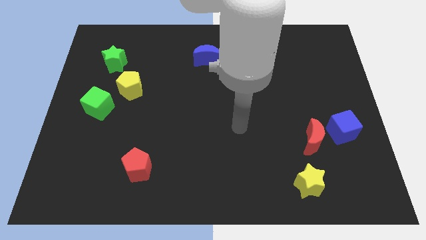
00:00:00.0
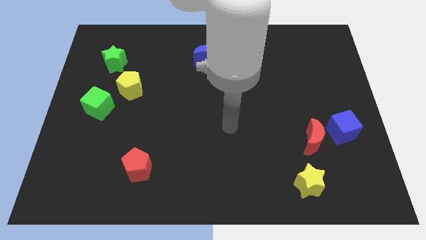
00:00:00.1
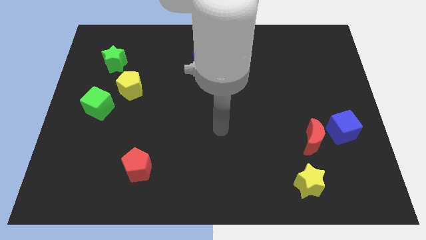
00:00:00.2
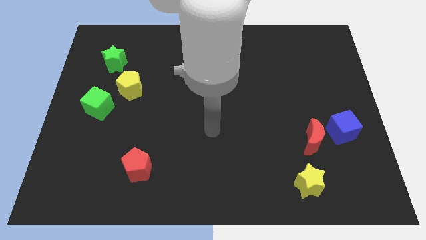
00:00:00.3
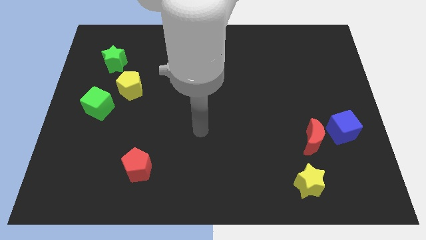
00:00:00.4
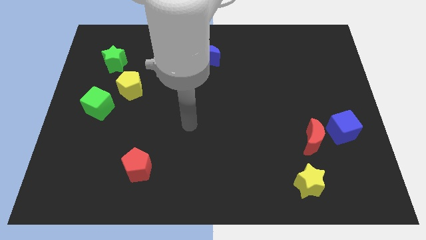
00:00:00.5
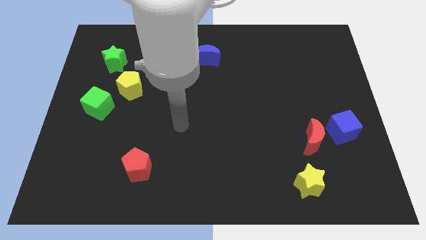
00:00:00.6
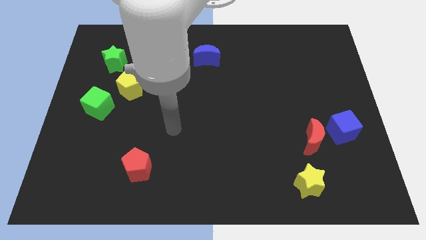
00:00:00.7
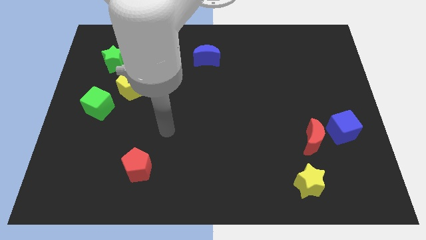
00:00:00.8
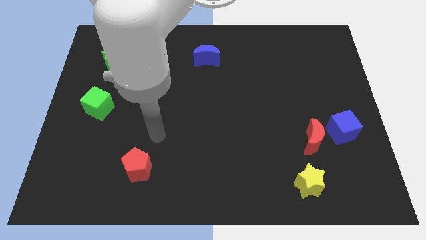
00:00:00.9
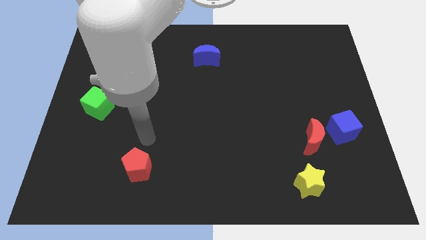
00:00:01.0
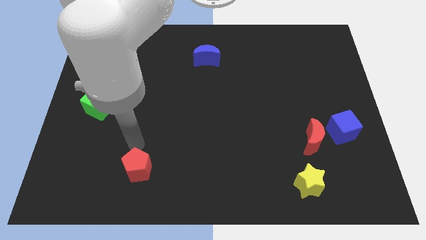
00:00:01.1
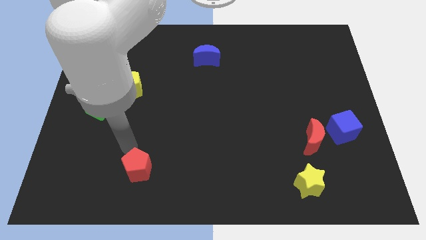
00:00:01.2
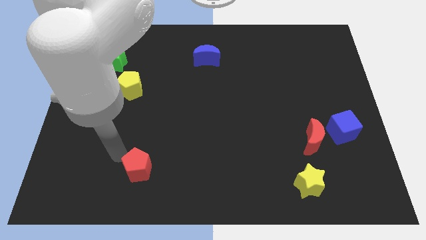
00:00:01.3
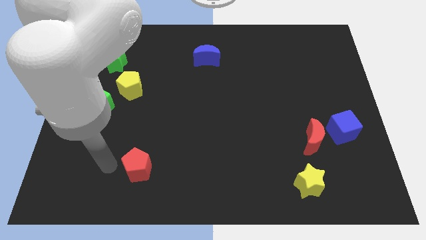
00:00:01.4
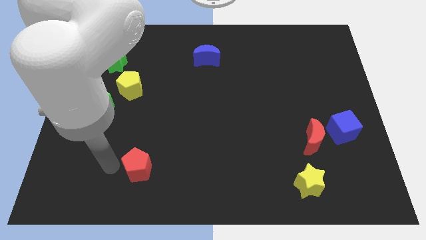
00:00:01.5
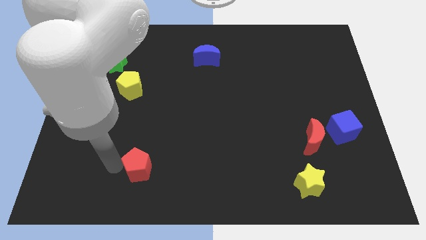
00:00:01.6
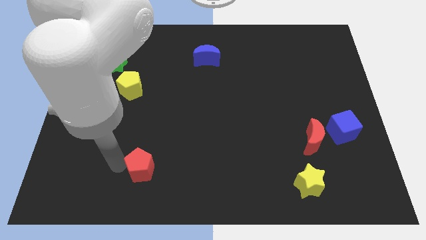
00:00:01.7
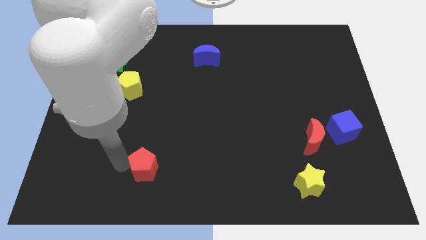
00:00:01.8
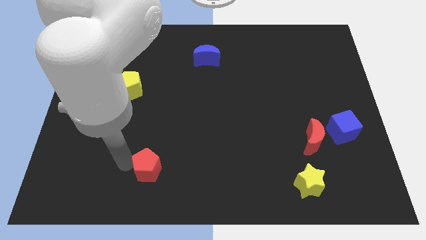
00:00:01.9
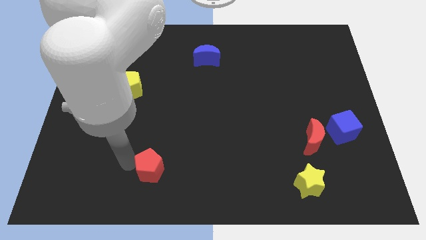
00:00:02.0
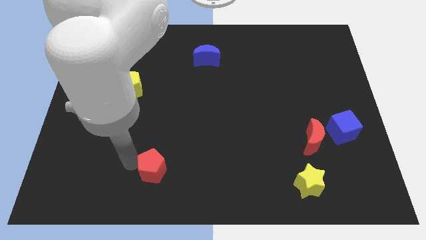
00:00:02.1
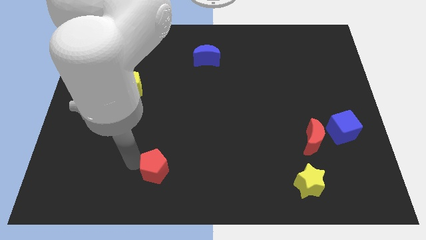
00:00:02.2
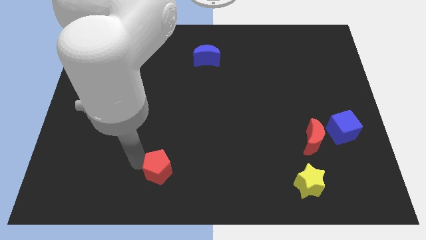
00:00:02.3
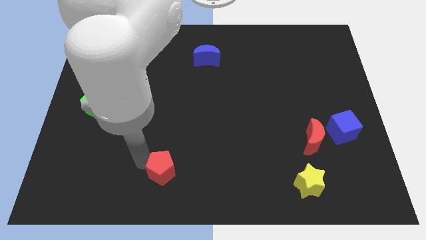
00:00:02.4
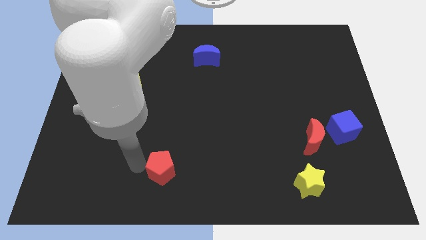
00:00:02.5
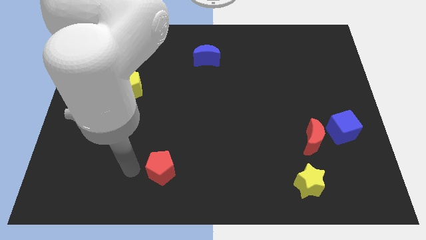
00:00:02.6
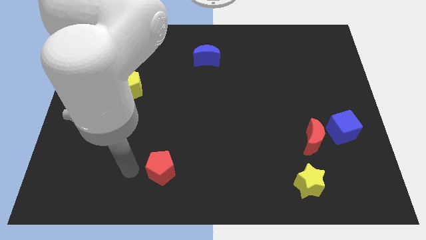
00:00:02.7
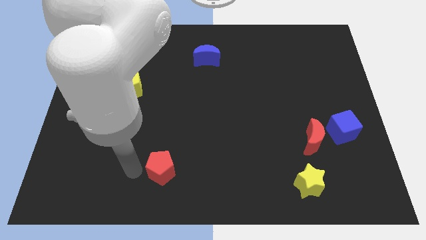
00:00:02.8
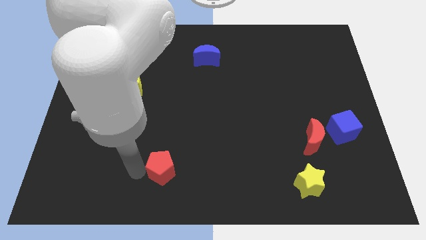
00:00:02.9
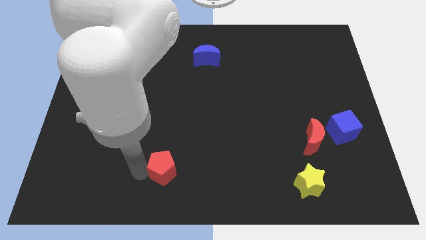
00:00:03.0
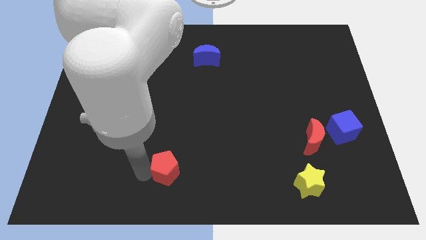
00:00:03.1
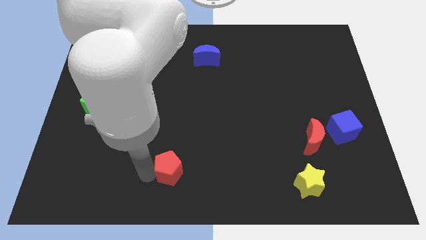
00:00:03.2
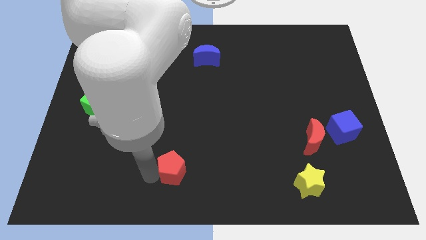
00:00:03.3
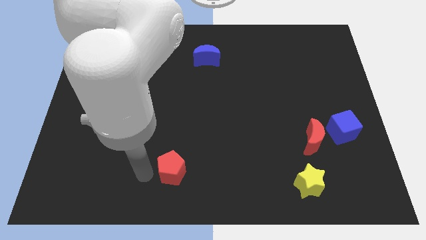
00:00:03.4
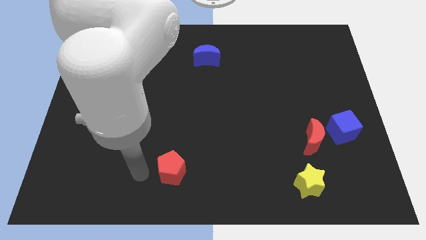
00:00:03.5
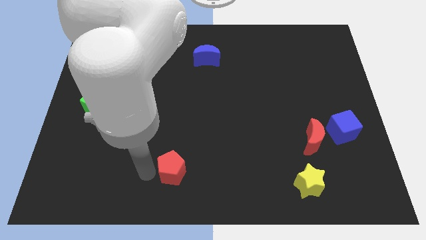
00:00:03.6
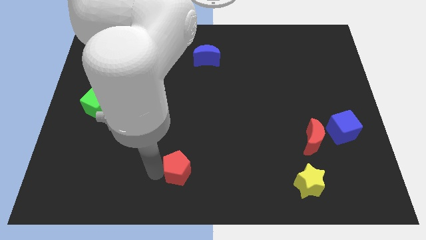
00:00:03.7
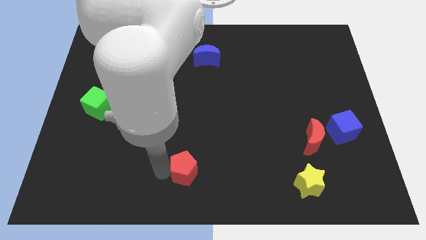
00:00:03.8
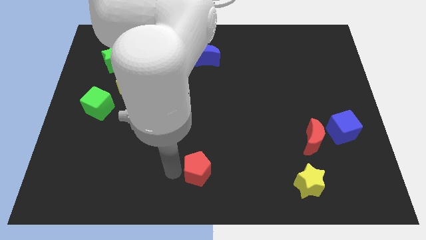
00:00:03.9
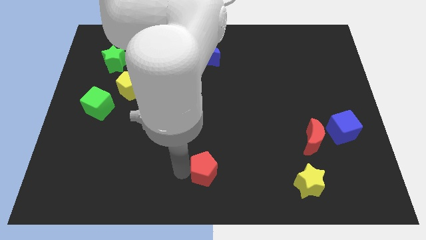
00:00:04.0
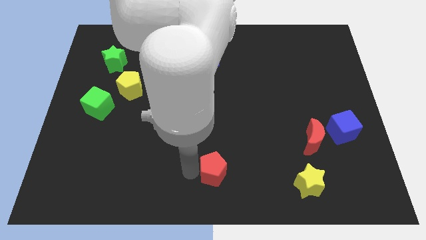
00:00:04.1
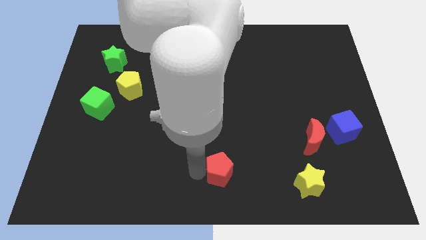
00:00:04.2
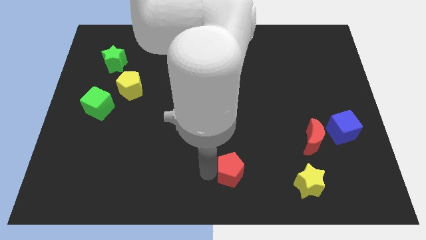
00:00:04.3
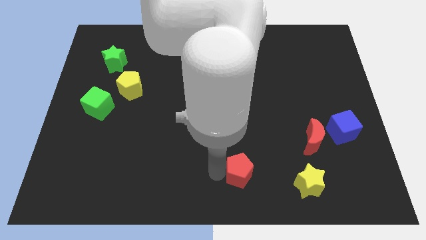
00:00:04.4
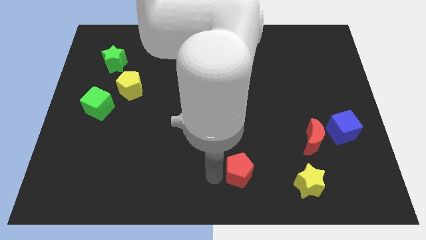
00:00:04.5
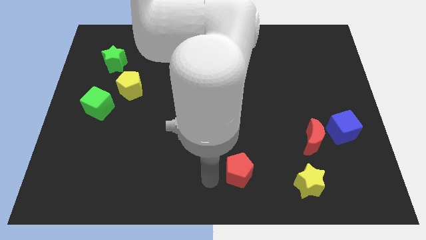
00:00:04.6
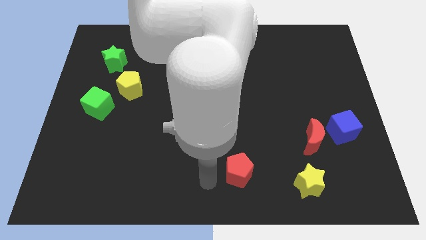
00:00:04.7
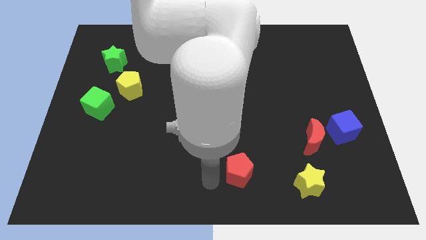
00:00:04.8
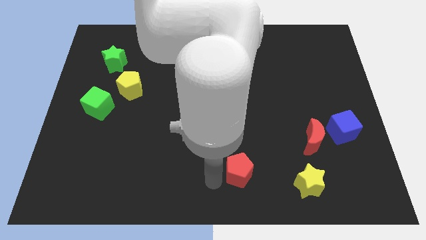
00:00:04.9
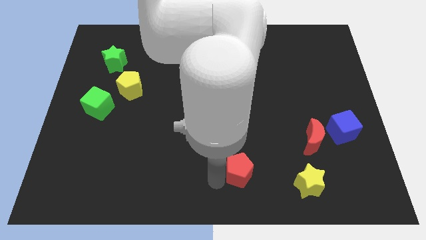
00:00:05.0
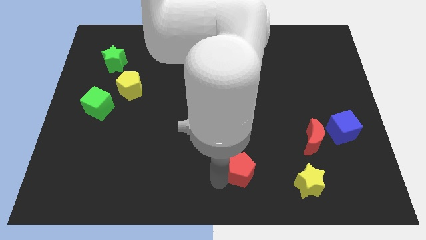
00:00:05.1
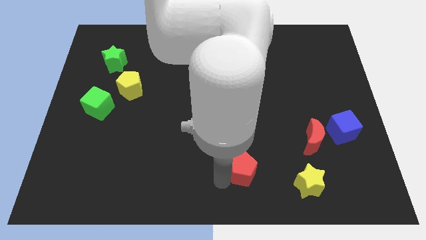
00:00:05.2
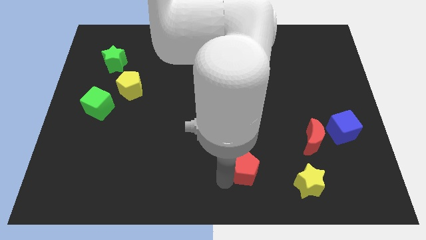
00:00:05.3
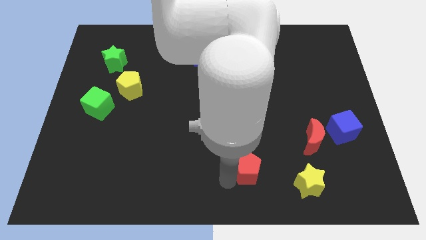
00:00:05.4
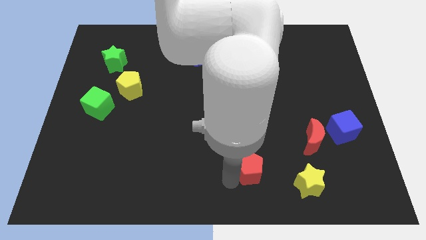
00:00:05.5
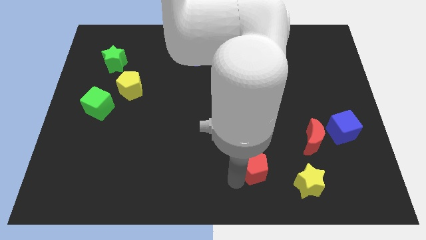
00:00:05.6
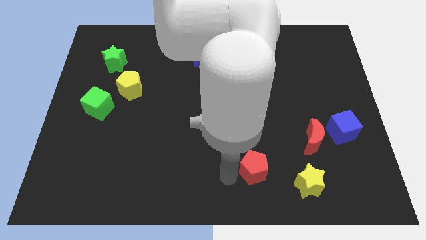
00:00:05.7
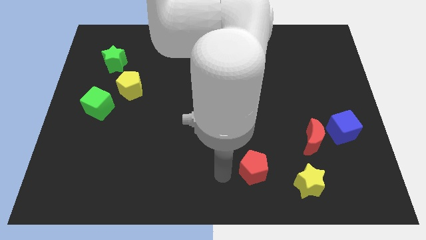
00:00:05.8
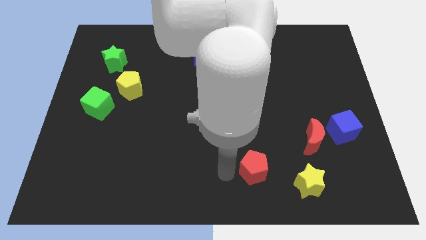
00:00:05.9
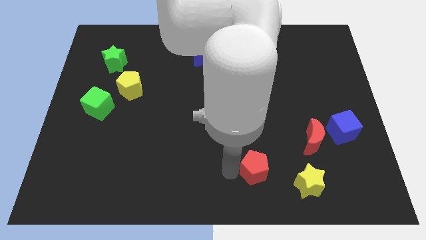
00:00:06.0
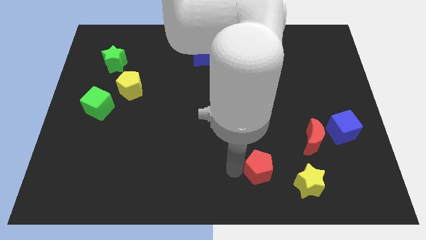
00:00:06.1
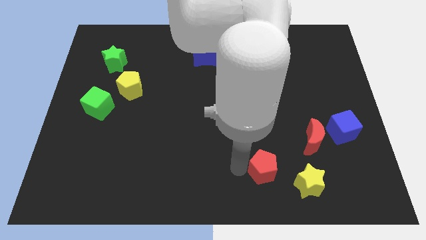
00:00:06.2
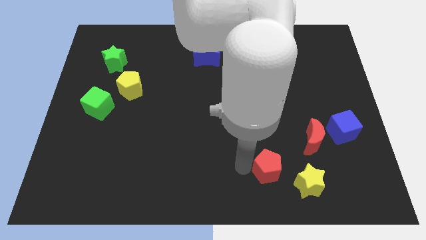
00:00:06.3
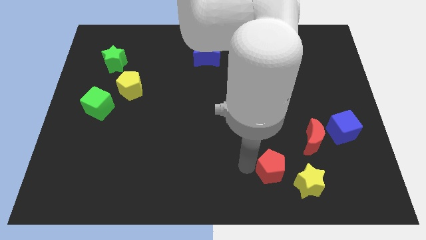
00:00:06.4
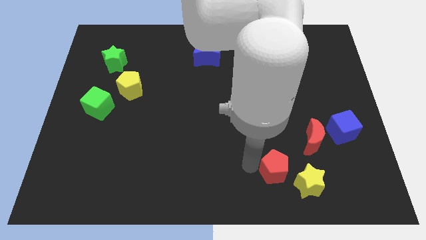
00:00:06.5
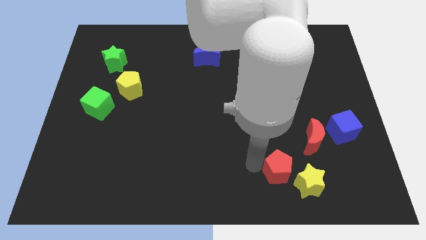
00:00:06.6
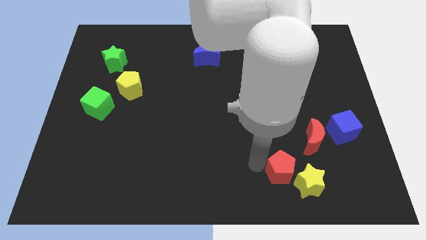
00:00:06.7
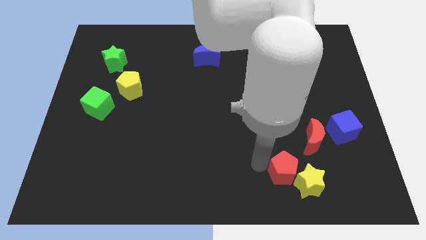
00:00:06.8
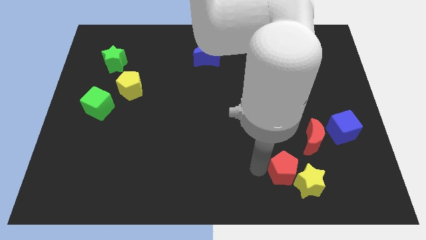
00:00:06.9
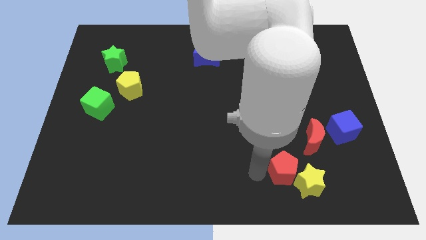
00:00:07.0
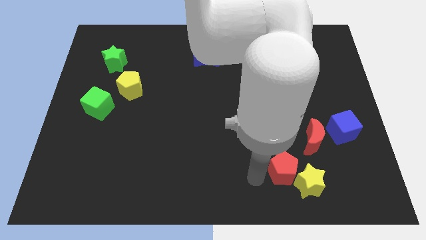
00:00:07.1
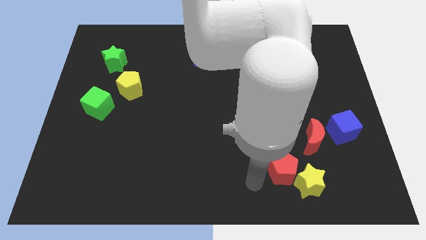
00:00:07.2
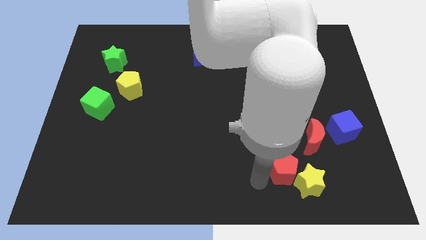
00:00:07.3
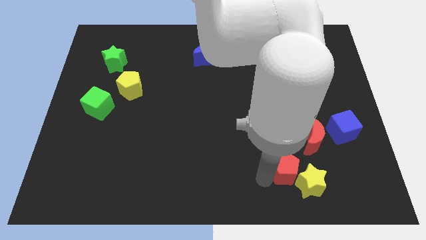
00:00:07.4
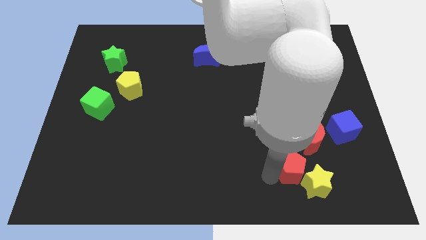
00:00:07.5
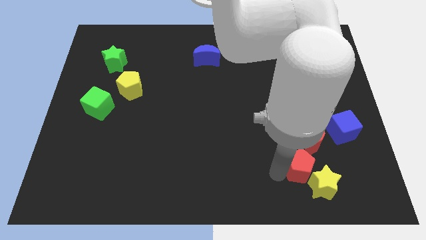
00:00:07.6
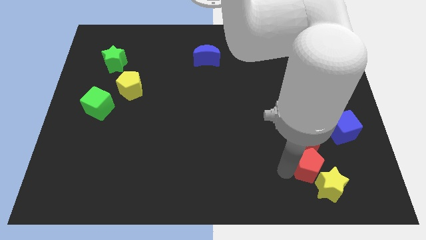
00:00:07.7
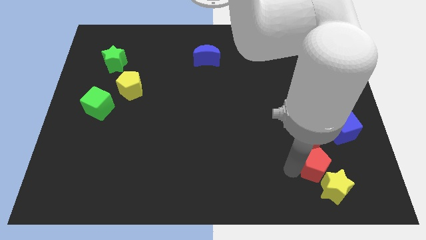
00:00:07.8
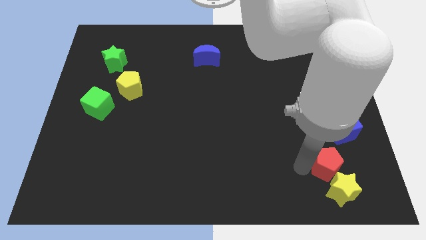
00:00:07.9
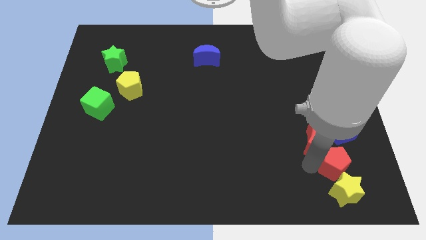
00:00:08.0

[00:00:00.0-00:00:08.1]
push the red pentagon below the blue cube
